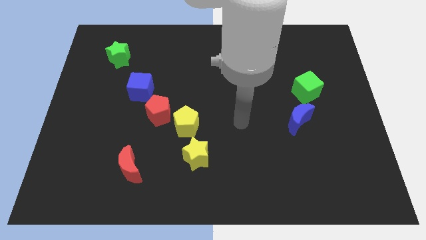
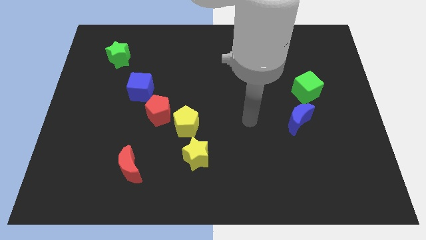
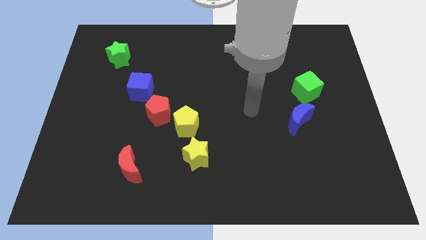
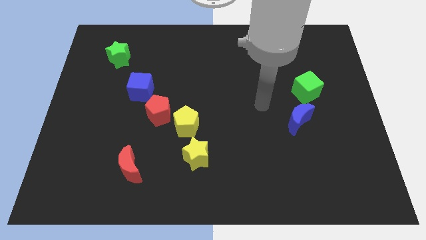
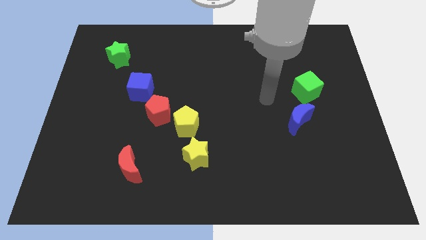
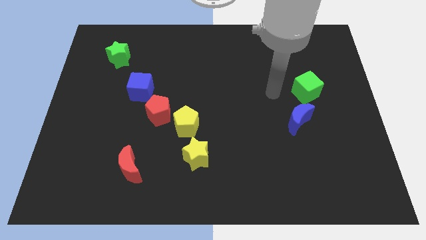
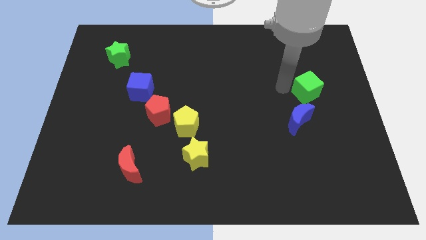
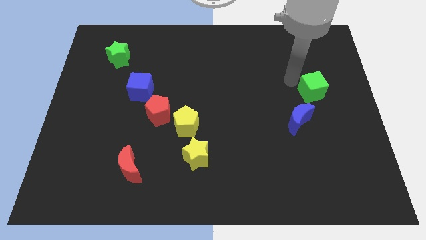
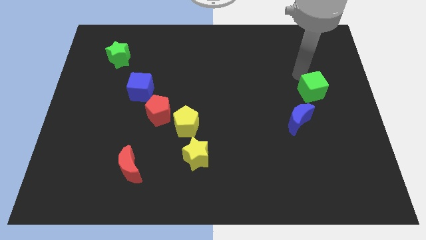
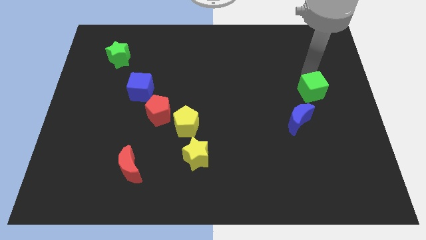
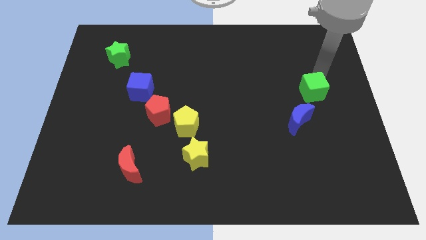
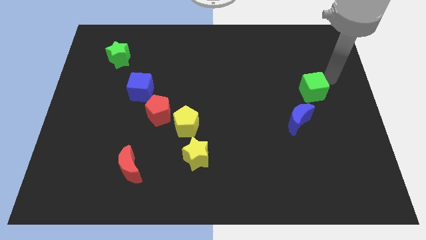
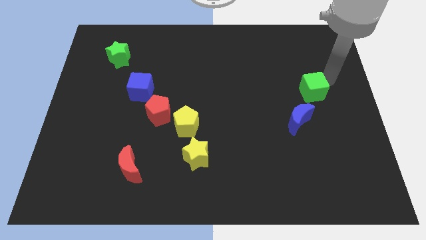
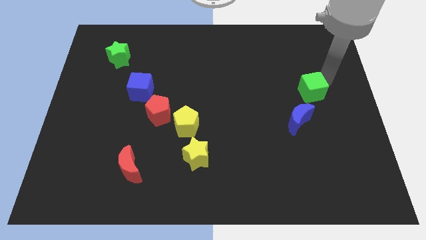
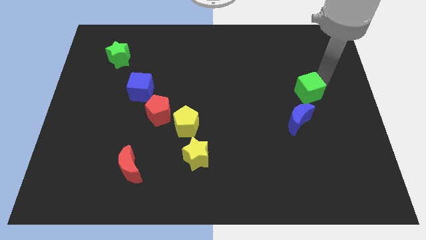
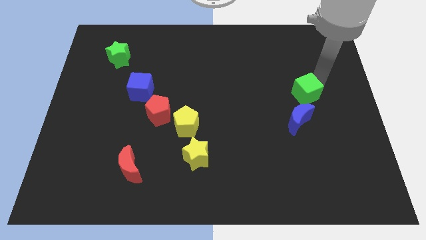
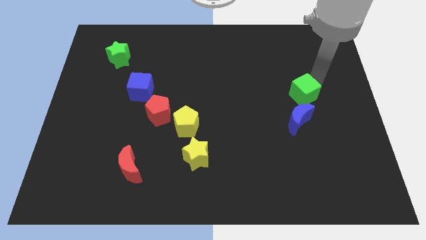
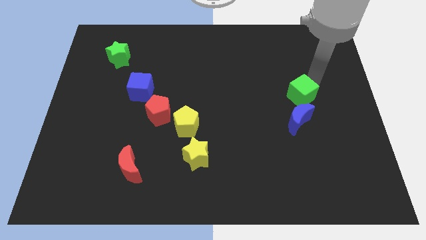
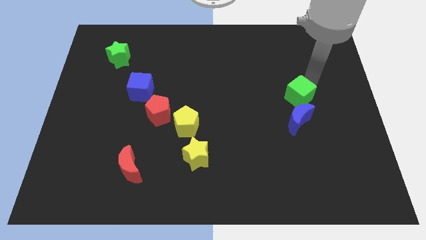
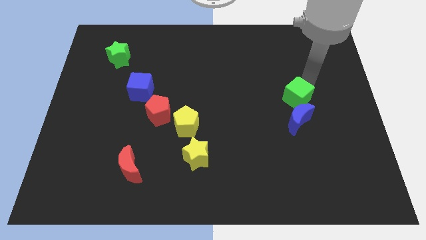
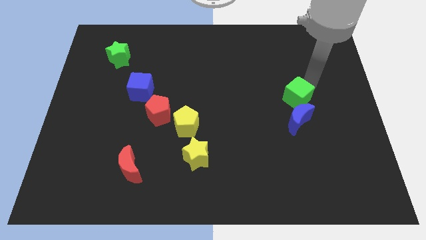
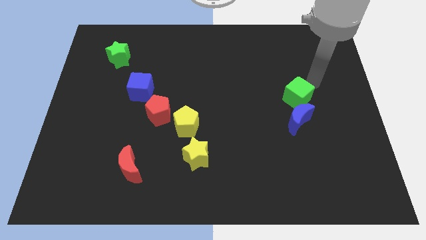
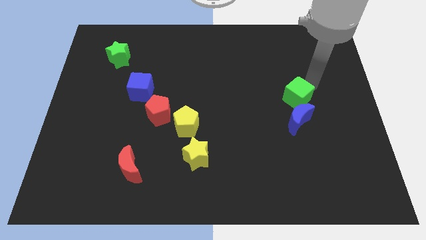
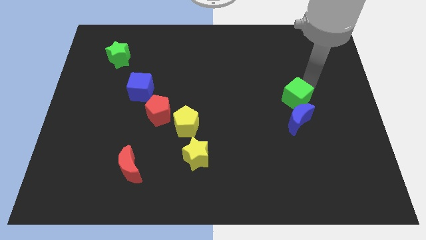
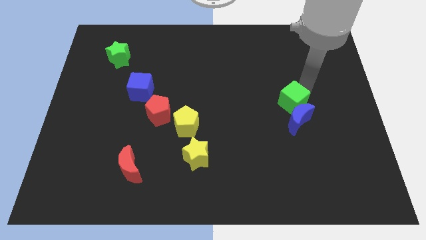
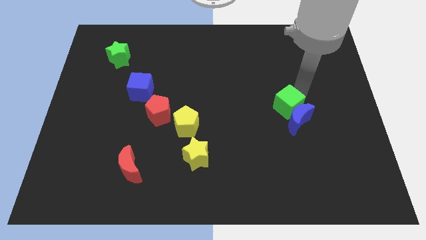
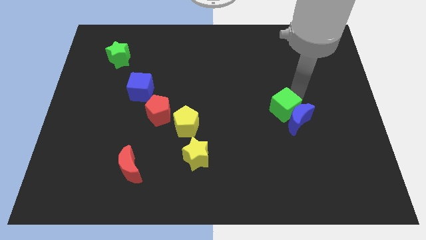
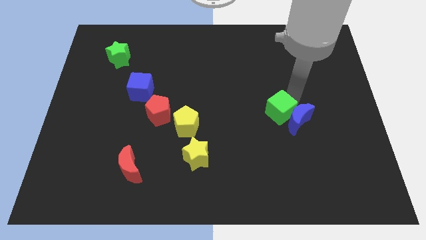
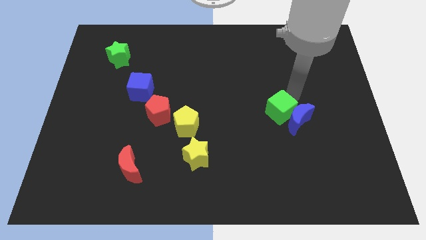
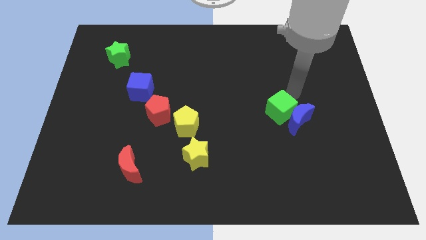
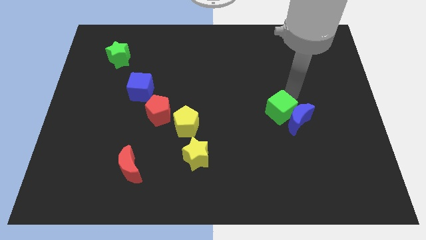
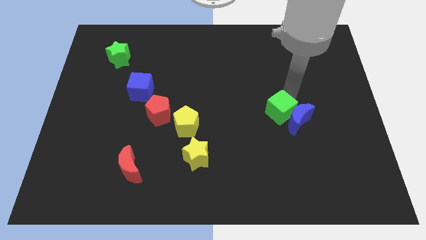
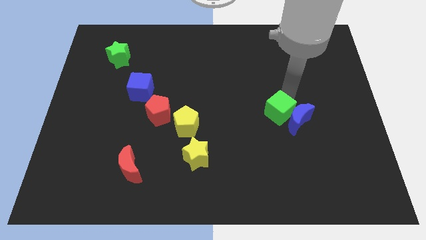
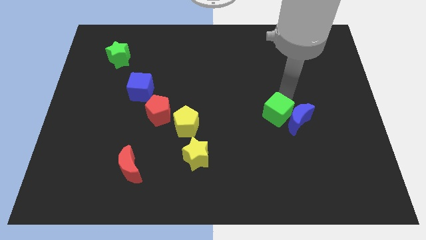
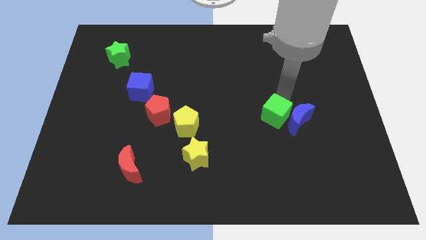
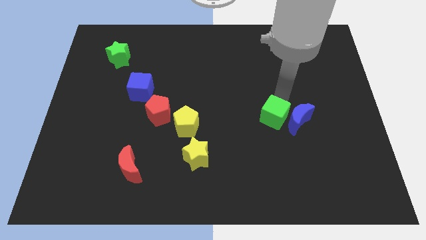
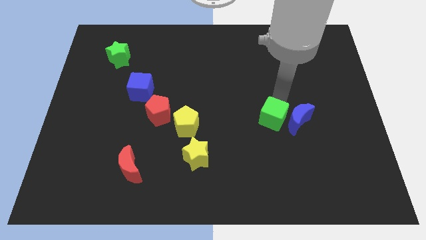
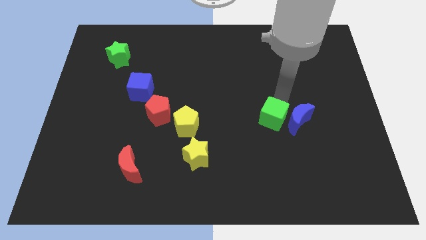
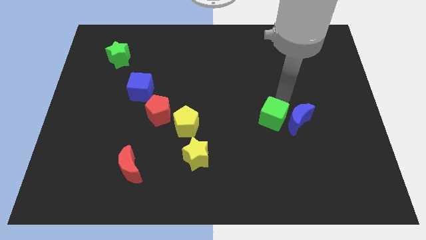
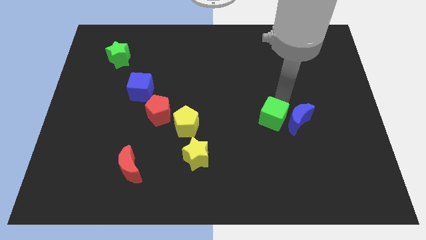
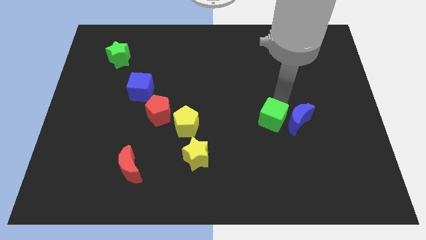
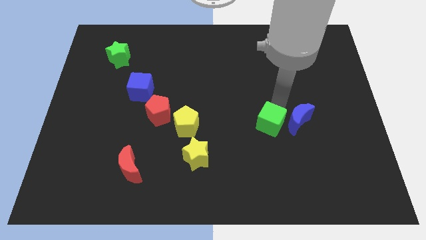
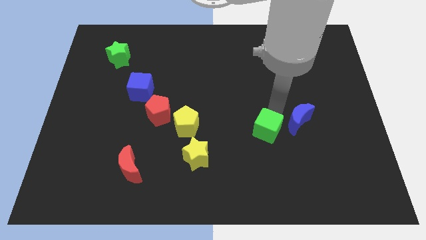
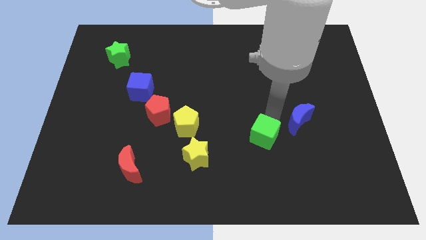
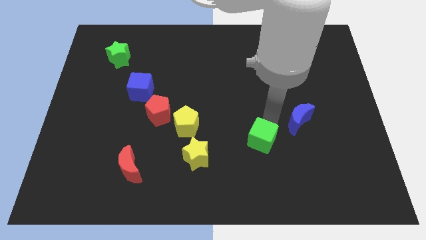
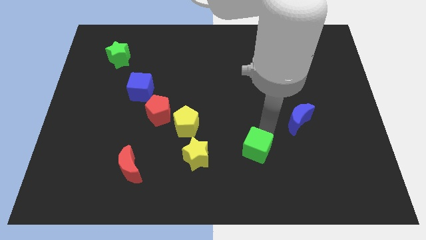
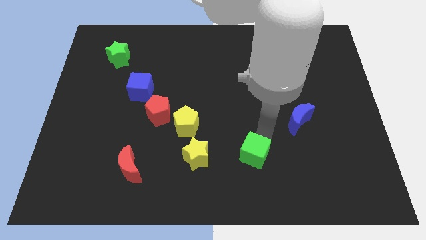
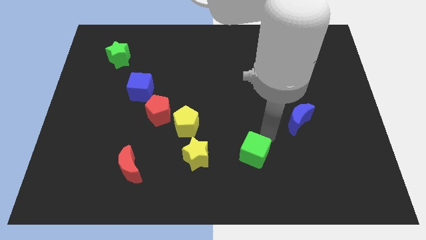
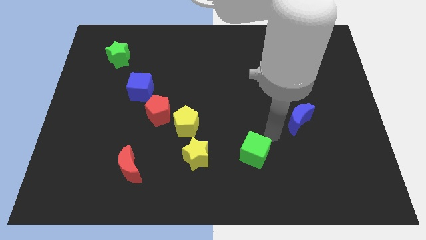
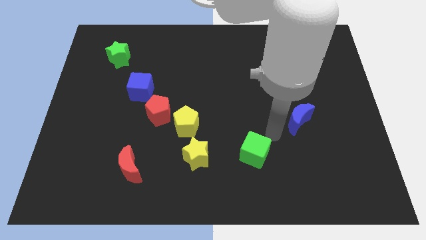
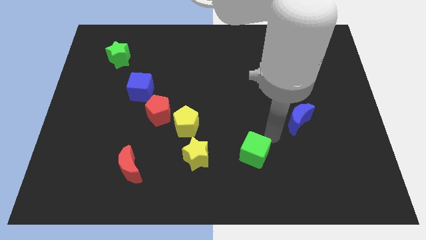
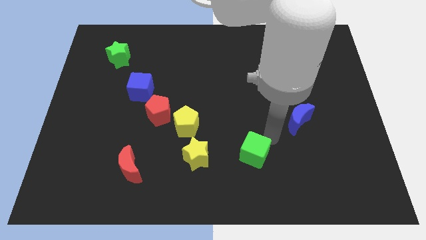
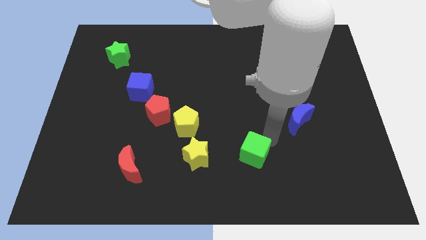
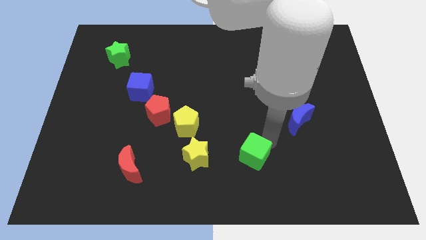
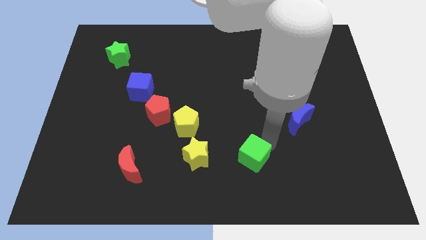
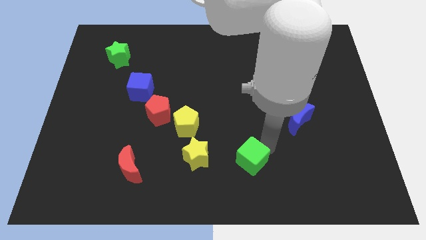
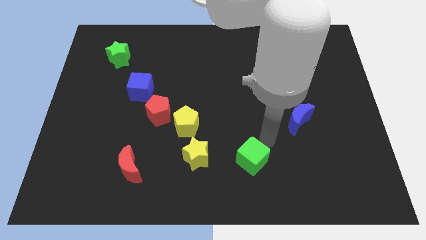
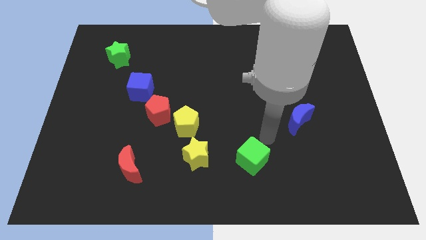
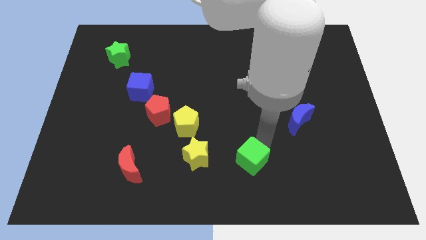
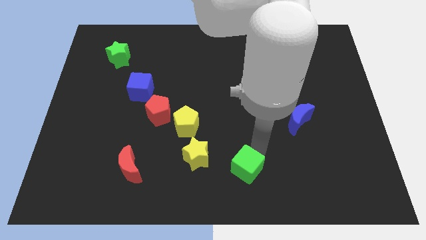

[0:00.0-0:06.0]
put the green cube to the bottom side
